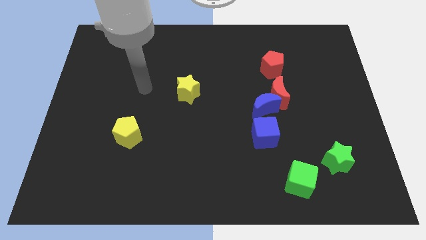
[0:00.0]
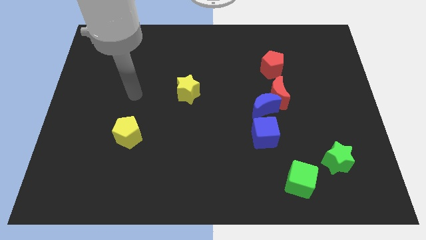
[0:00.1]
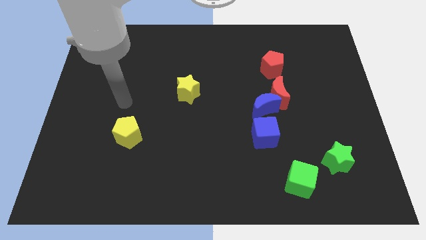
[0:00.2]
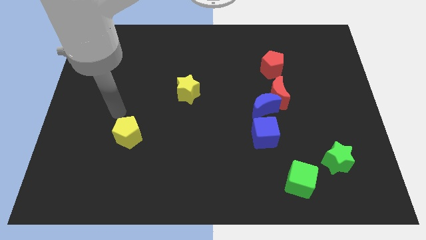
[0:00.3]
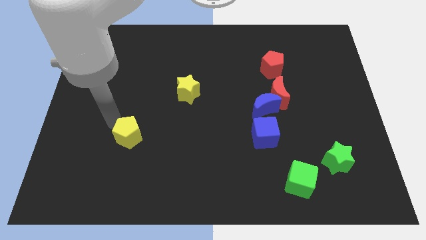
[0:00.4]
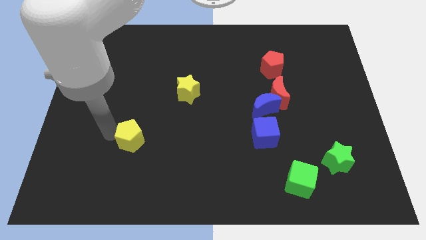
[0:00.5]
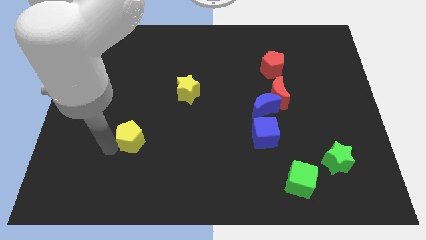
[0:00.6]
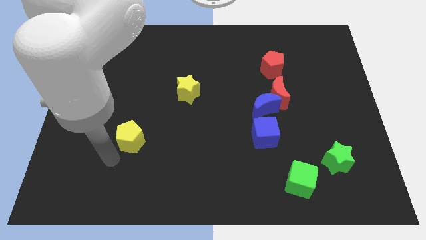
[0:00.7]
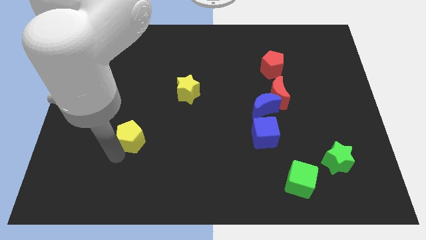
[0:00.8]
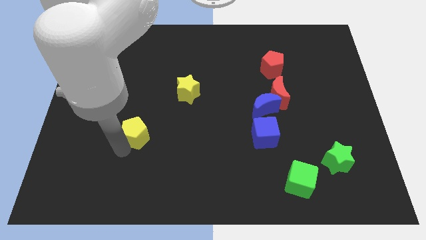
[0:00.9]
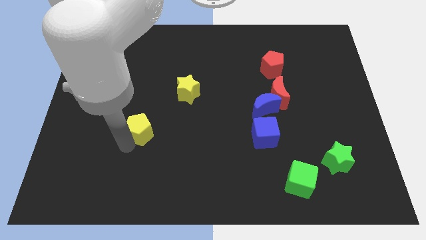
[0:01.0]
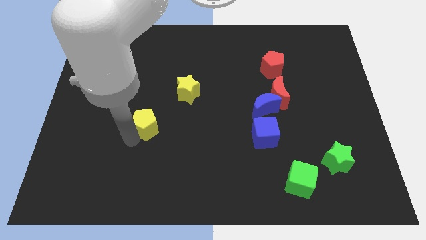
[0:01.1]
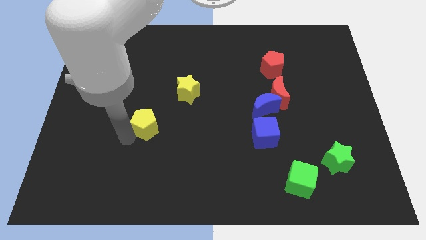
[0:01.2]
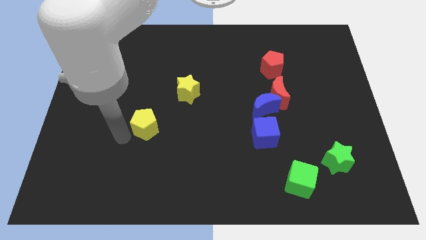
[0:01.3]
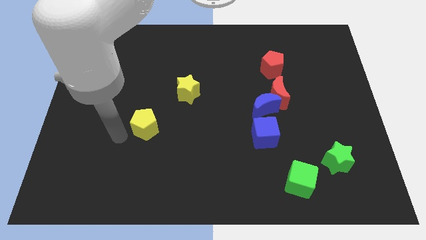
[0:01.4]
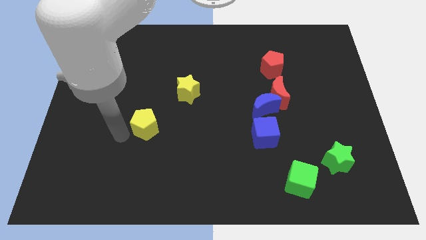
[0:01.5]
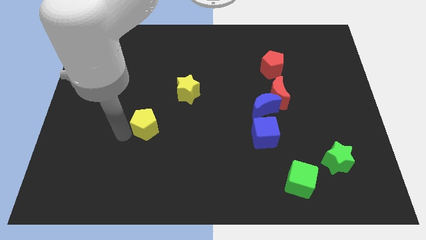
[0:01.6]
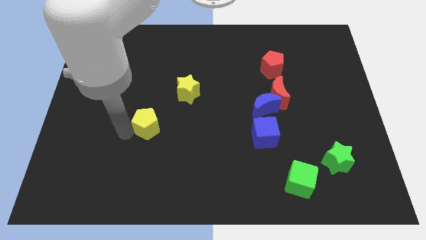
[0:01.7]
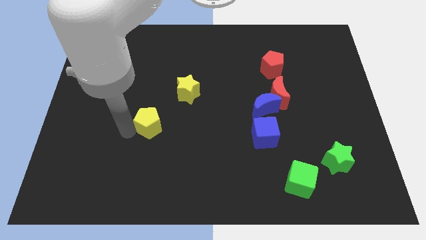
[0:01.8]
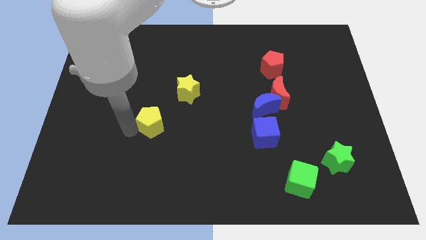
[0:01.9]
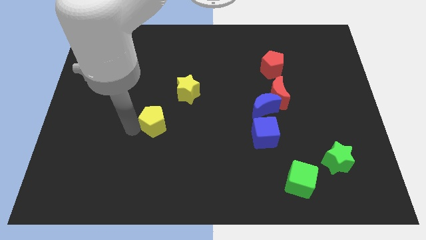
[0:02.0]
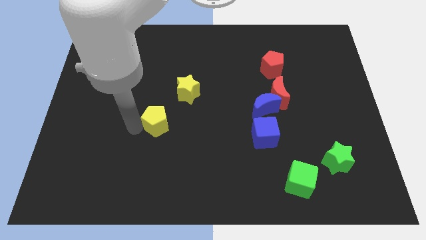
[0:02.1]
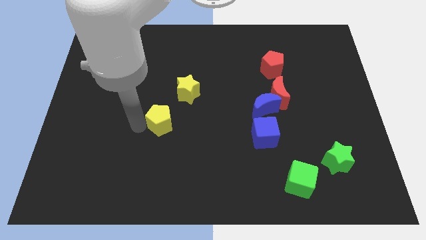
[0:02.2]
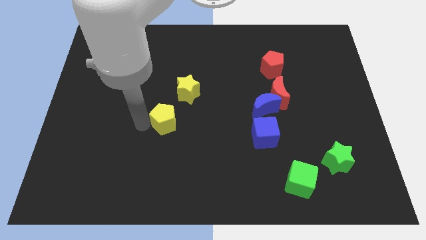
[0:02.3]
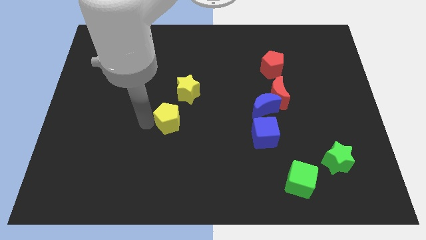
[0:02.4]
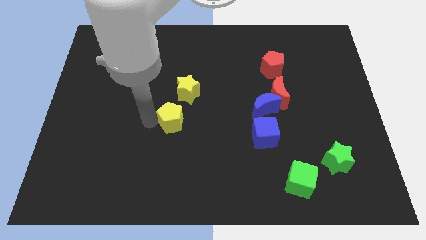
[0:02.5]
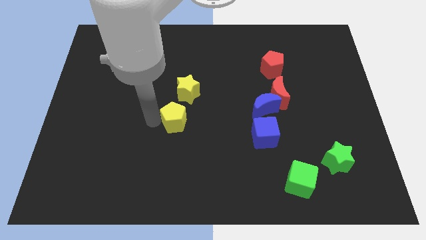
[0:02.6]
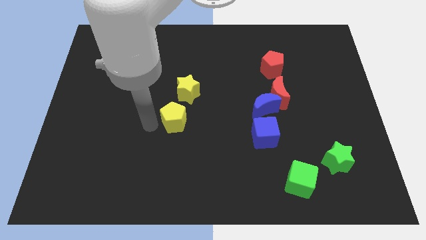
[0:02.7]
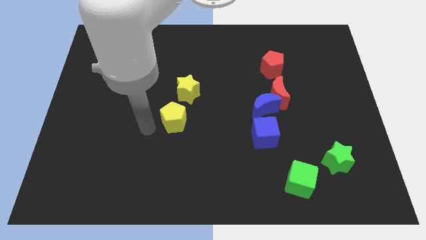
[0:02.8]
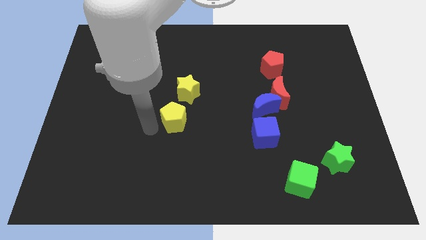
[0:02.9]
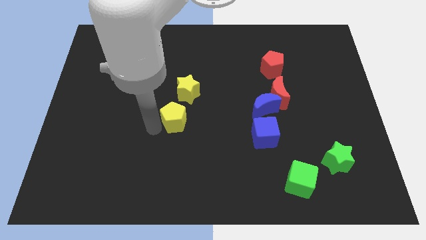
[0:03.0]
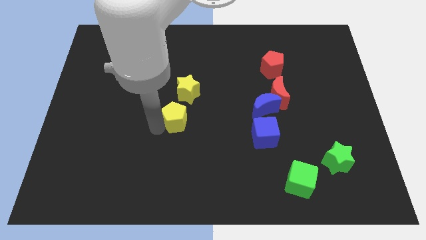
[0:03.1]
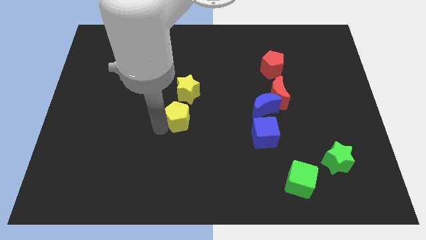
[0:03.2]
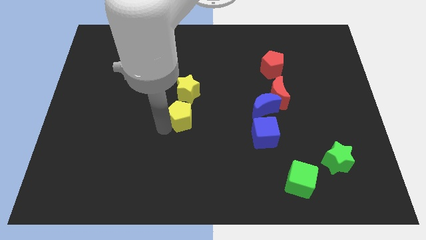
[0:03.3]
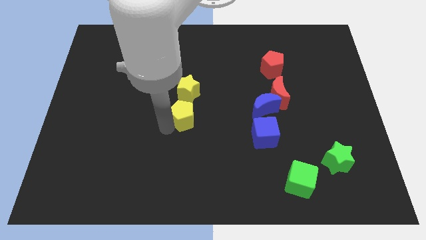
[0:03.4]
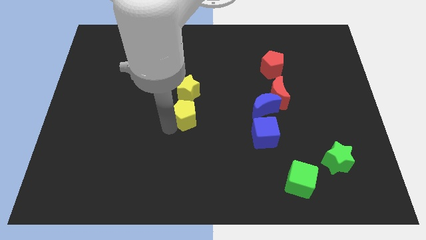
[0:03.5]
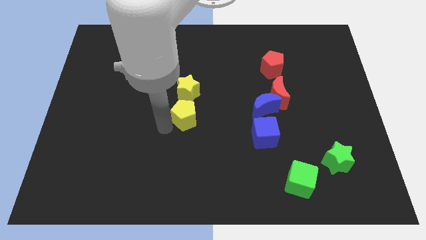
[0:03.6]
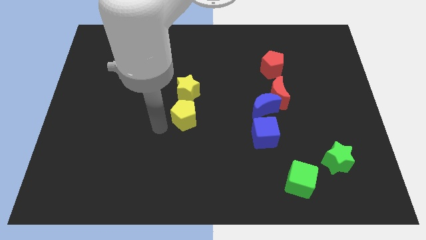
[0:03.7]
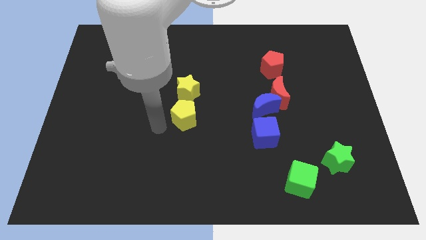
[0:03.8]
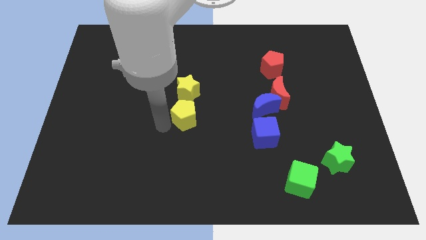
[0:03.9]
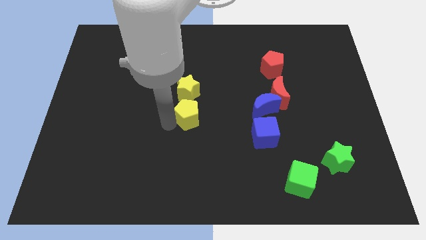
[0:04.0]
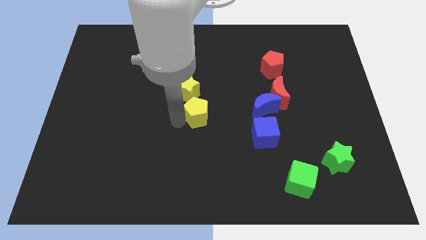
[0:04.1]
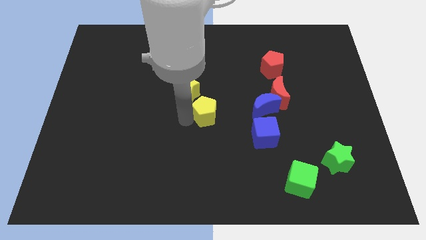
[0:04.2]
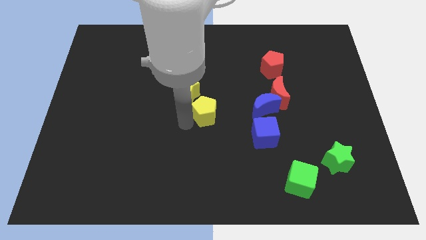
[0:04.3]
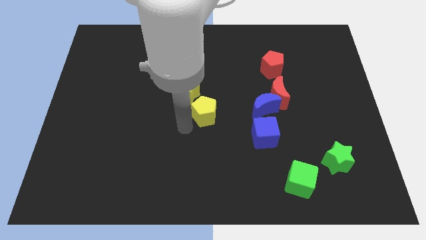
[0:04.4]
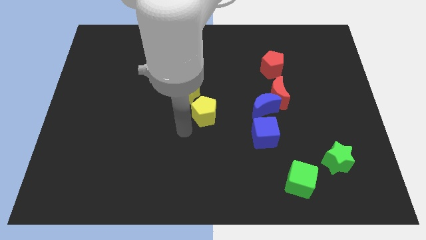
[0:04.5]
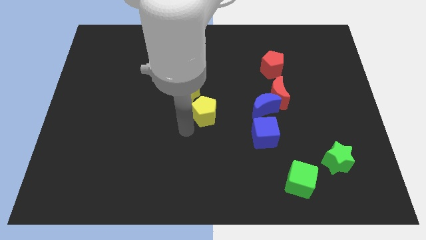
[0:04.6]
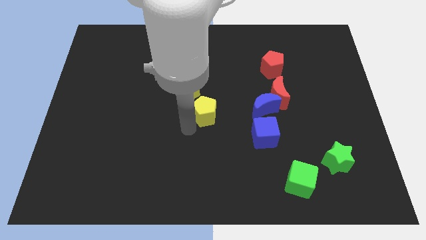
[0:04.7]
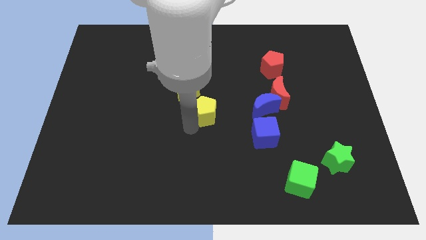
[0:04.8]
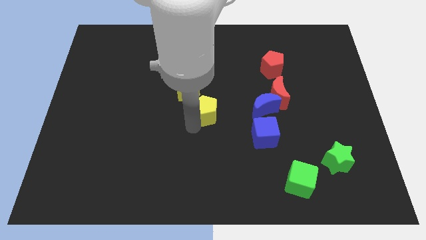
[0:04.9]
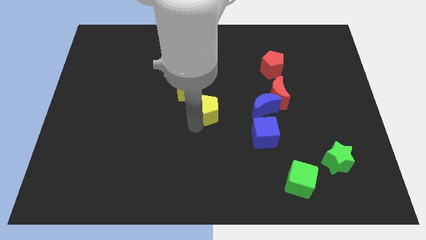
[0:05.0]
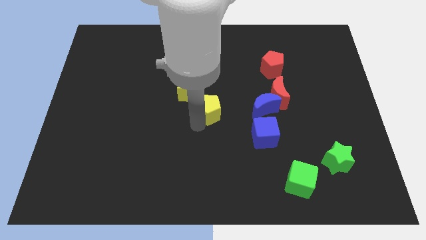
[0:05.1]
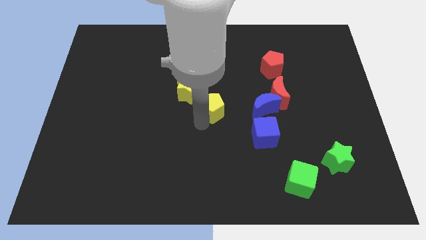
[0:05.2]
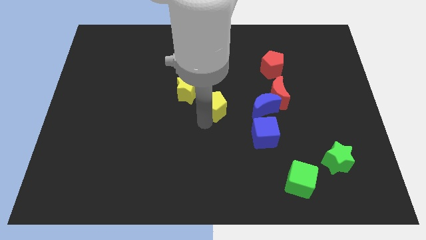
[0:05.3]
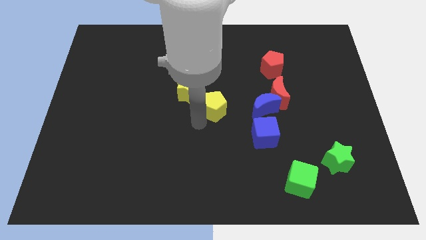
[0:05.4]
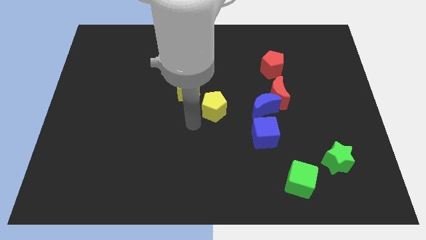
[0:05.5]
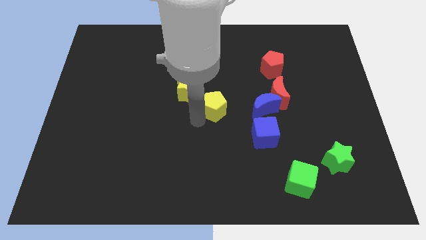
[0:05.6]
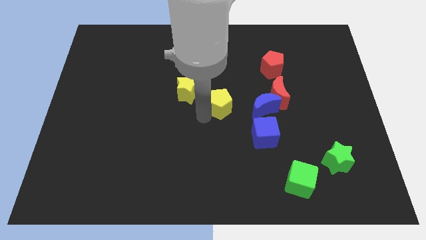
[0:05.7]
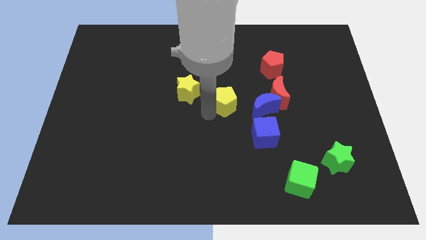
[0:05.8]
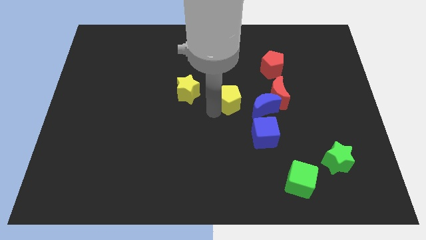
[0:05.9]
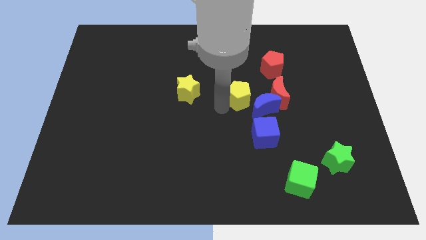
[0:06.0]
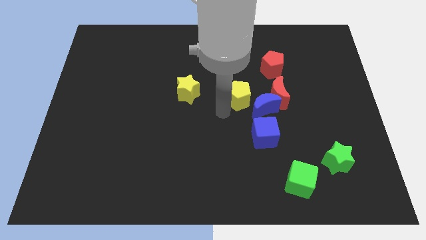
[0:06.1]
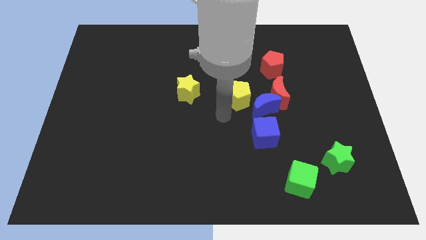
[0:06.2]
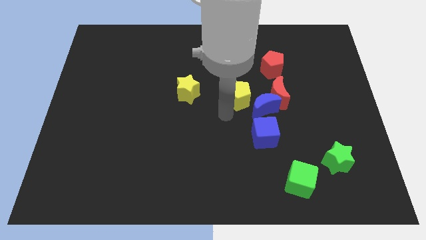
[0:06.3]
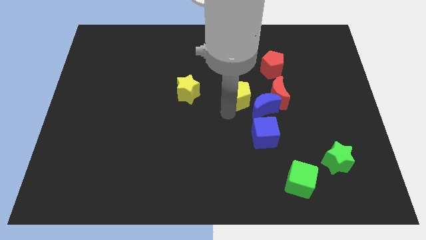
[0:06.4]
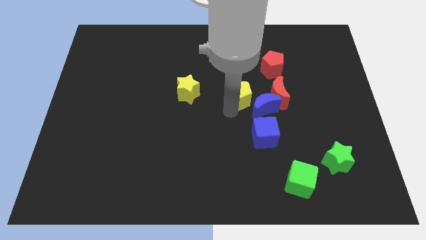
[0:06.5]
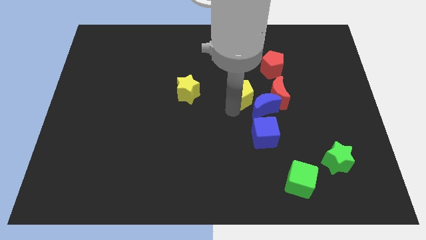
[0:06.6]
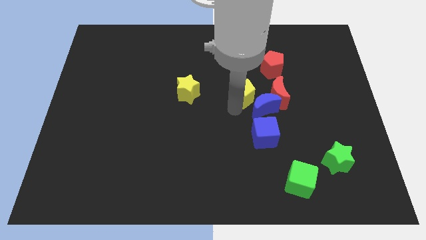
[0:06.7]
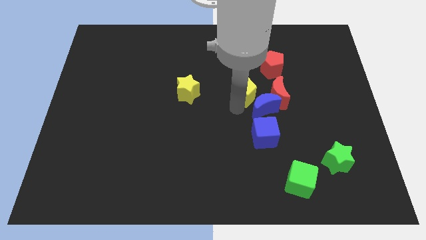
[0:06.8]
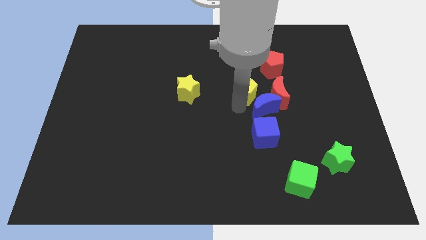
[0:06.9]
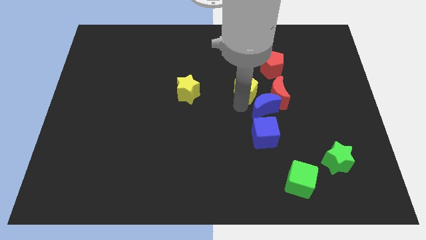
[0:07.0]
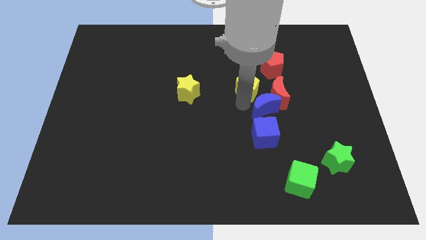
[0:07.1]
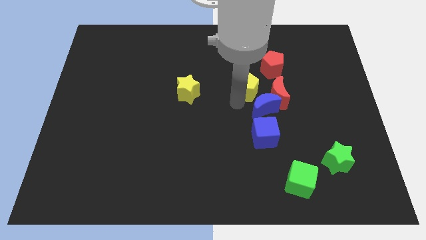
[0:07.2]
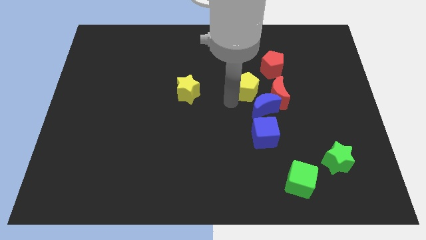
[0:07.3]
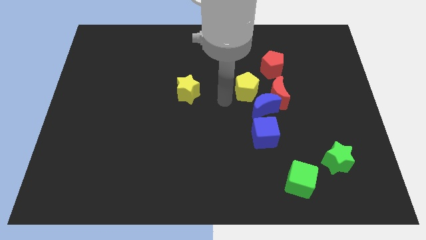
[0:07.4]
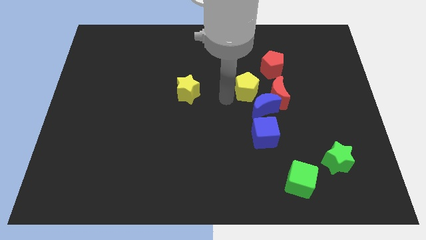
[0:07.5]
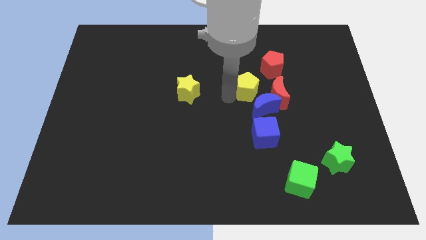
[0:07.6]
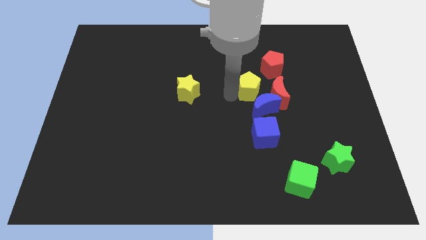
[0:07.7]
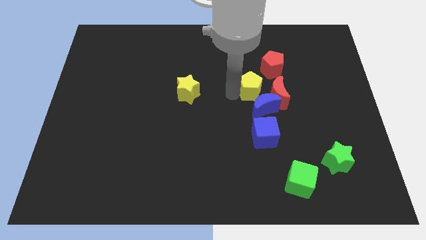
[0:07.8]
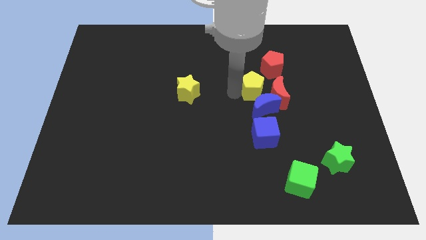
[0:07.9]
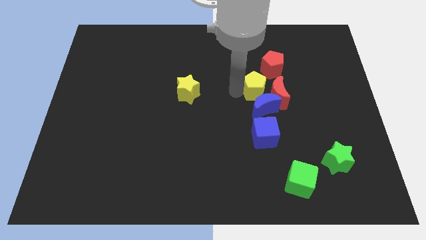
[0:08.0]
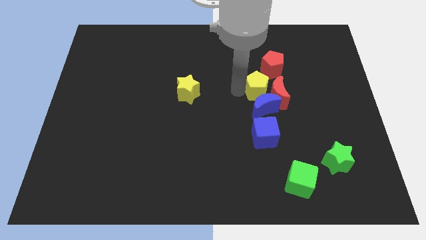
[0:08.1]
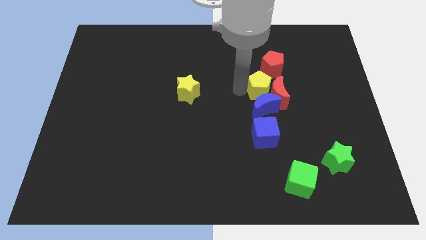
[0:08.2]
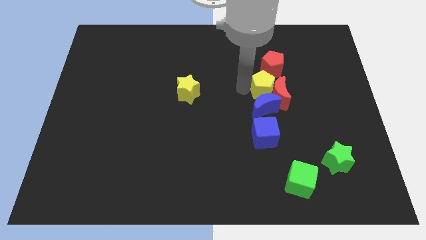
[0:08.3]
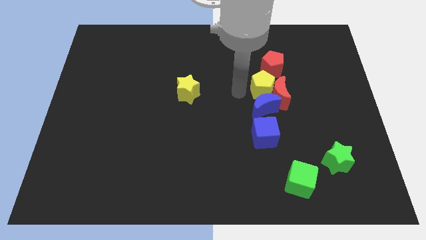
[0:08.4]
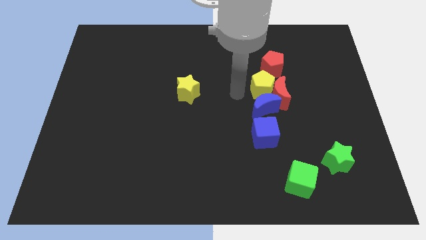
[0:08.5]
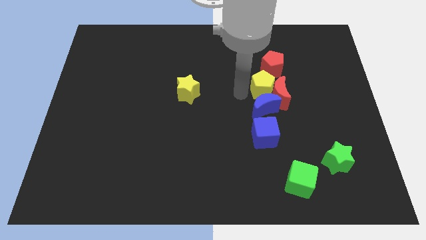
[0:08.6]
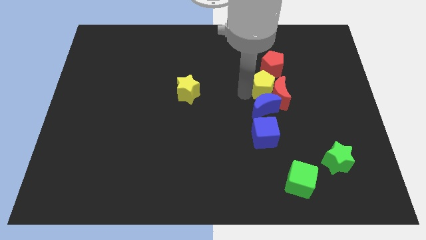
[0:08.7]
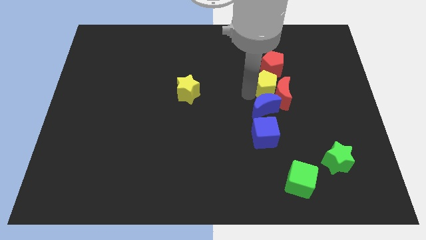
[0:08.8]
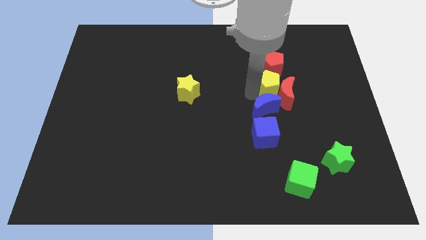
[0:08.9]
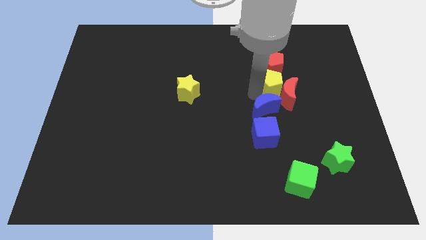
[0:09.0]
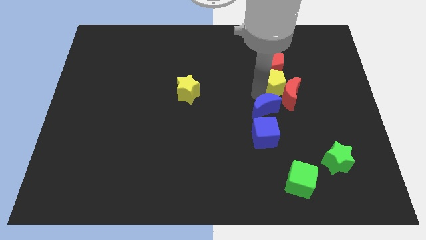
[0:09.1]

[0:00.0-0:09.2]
put the yellow pentagon to the bottom right side of the red pentagon
